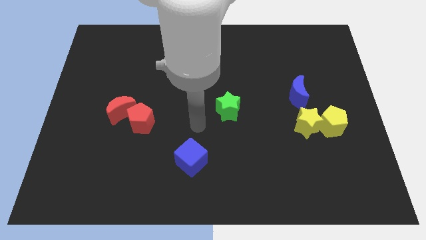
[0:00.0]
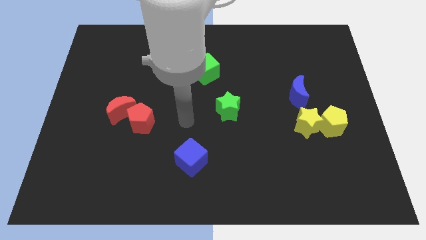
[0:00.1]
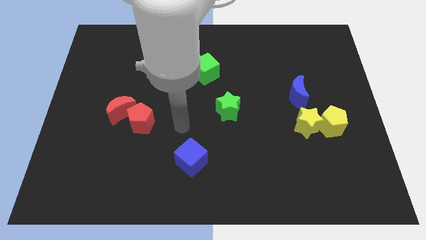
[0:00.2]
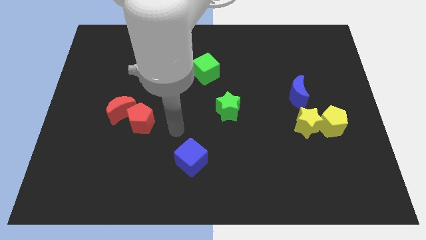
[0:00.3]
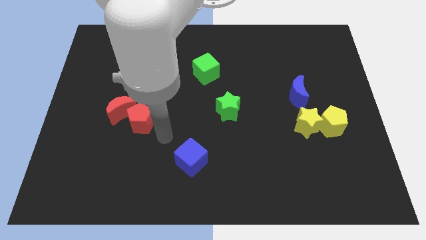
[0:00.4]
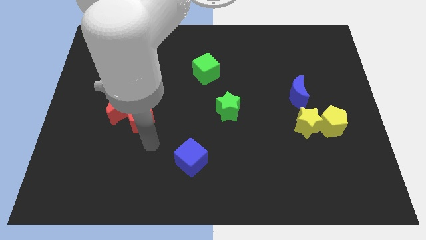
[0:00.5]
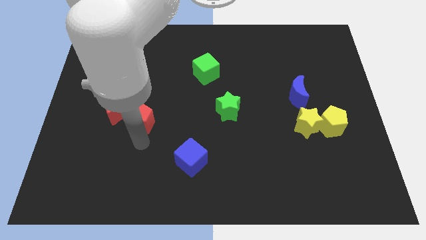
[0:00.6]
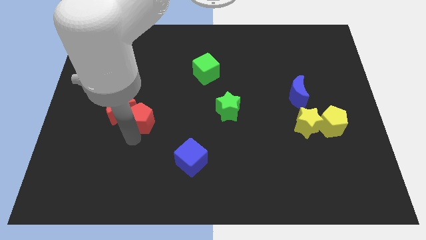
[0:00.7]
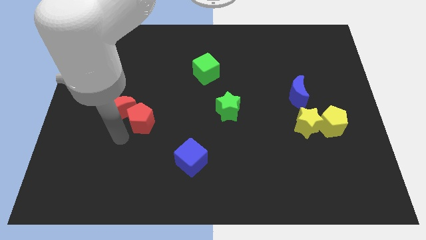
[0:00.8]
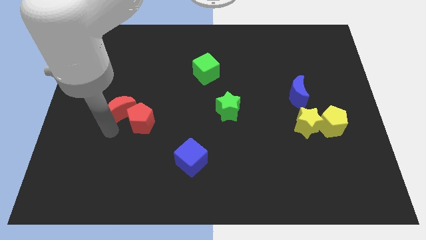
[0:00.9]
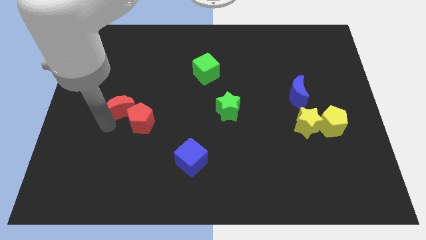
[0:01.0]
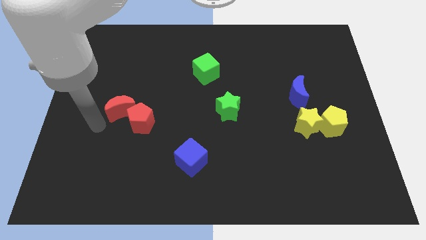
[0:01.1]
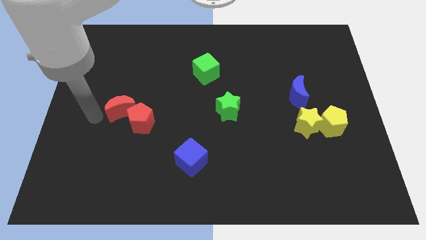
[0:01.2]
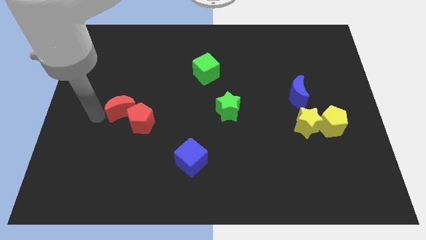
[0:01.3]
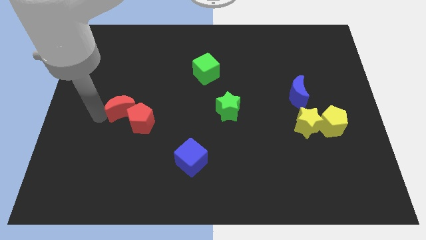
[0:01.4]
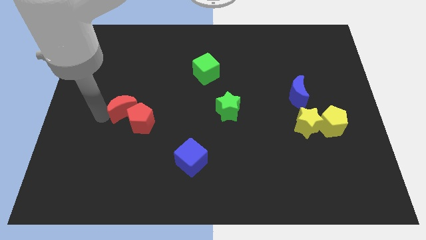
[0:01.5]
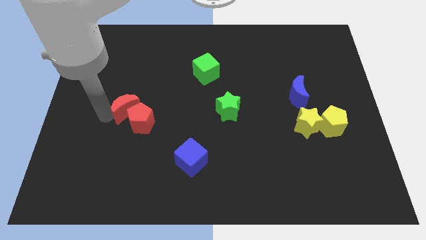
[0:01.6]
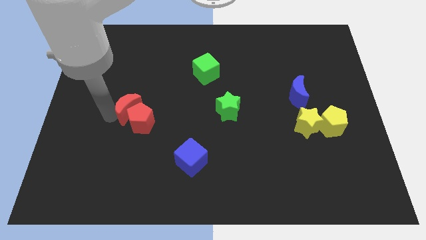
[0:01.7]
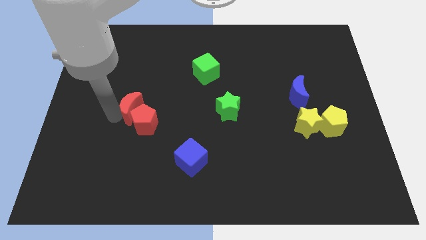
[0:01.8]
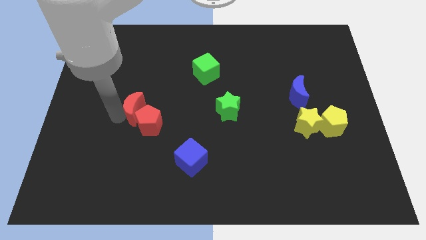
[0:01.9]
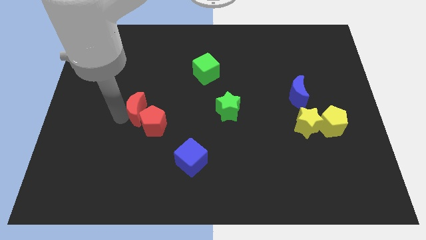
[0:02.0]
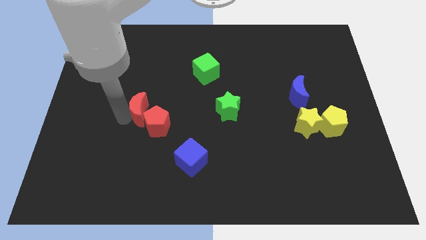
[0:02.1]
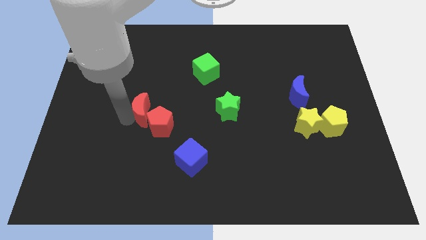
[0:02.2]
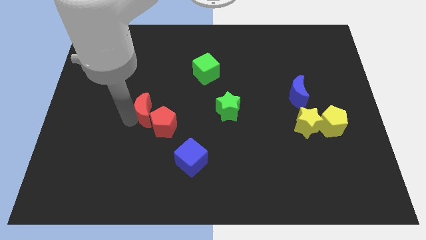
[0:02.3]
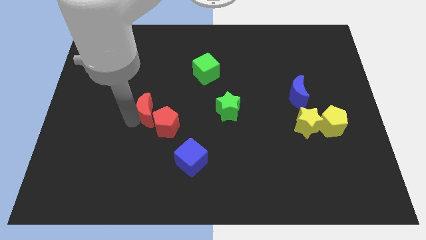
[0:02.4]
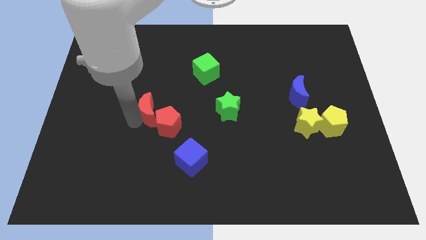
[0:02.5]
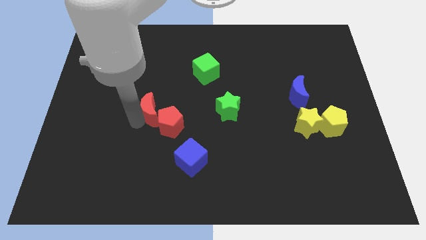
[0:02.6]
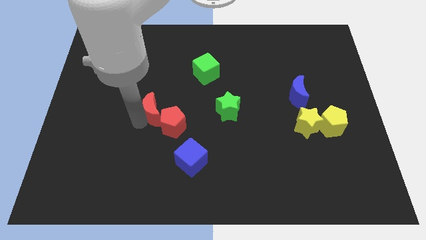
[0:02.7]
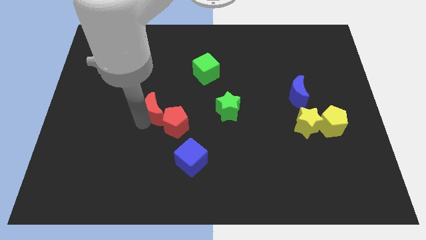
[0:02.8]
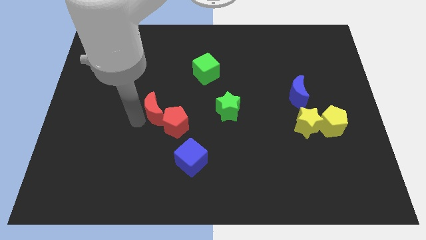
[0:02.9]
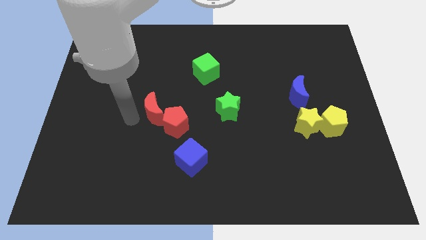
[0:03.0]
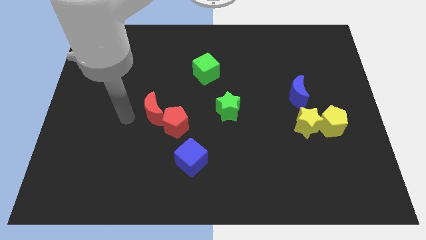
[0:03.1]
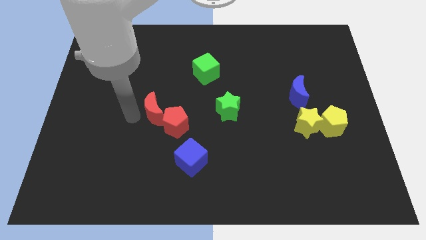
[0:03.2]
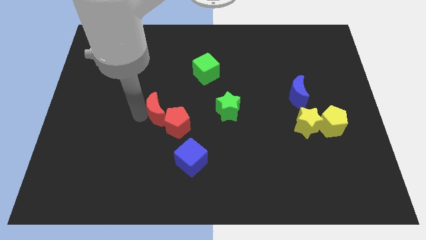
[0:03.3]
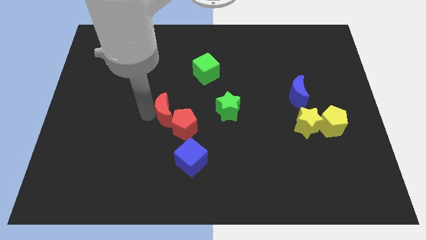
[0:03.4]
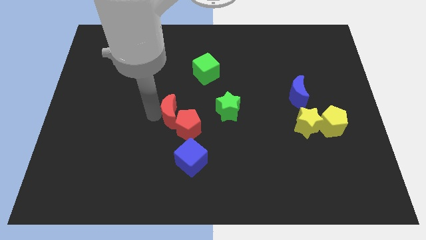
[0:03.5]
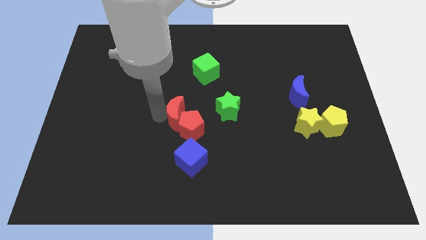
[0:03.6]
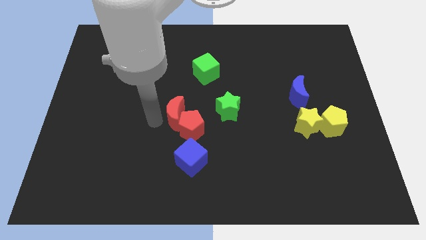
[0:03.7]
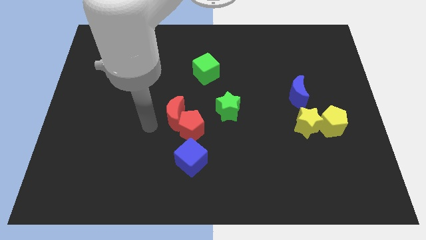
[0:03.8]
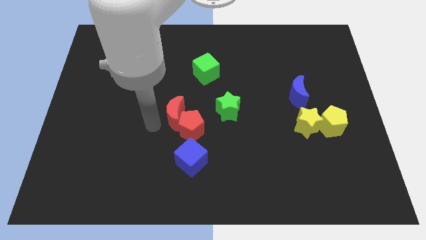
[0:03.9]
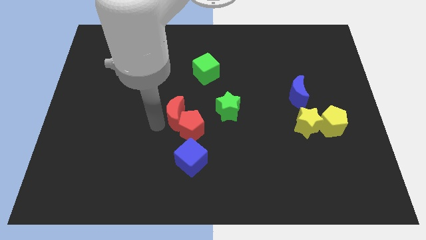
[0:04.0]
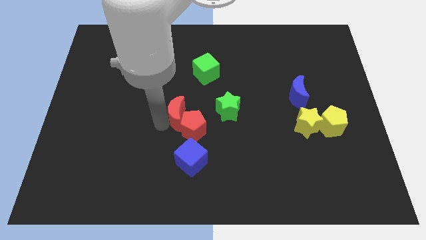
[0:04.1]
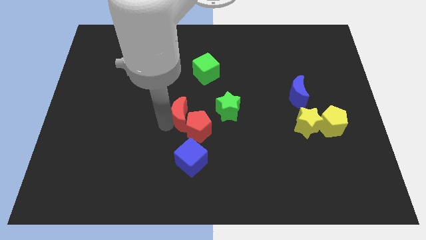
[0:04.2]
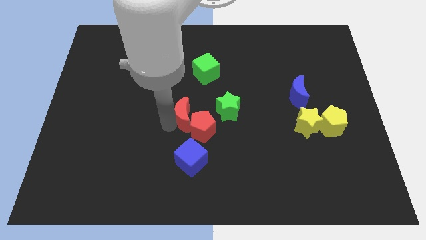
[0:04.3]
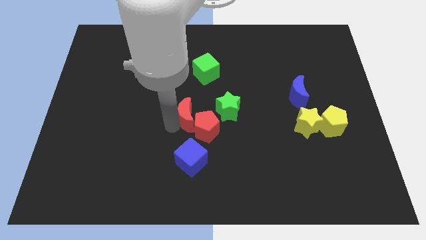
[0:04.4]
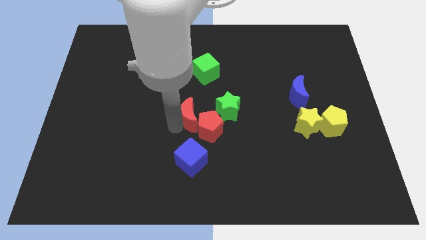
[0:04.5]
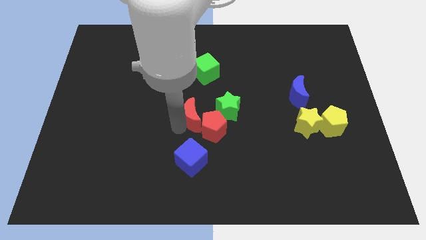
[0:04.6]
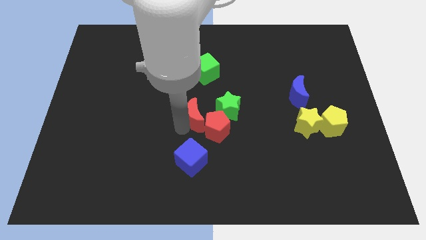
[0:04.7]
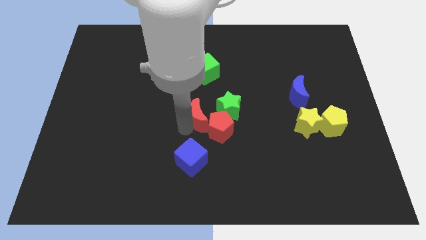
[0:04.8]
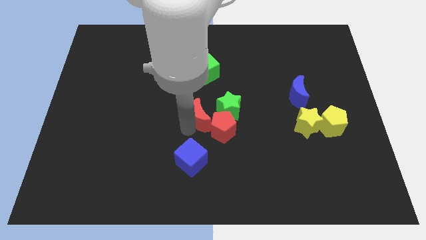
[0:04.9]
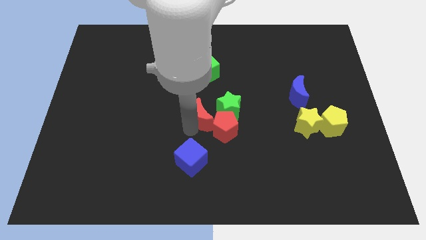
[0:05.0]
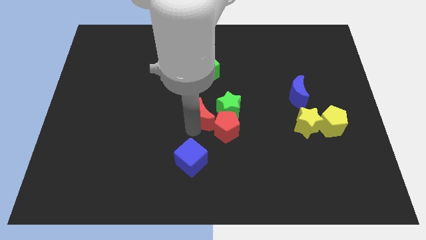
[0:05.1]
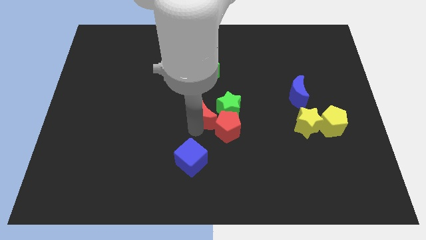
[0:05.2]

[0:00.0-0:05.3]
slide the red moon to the green star

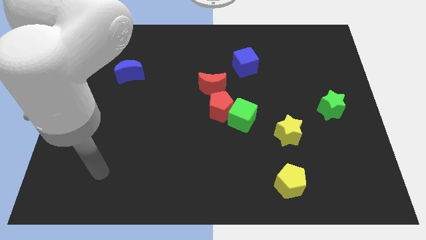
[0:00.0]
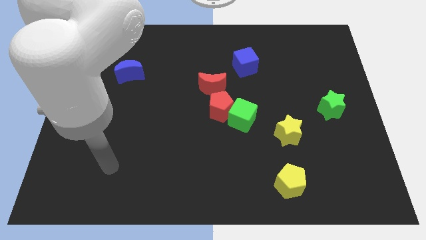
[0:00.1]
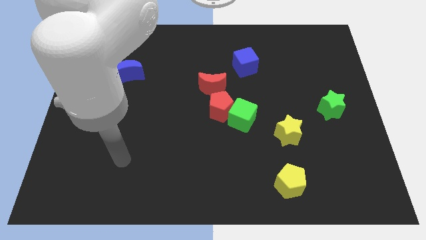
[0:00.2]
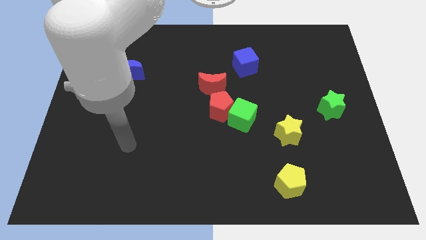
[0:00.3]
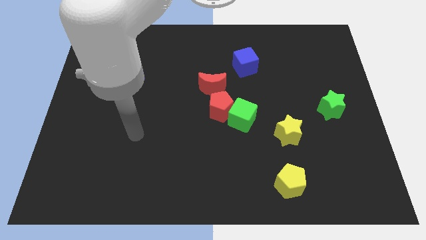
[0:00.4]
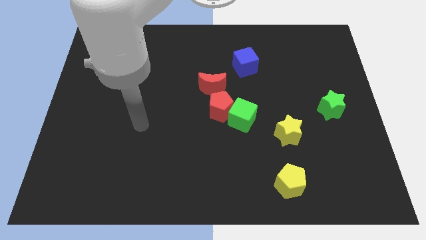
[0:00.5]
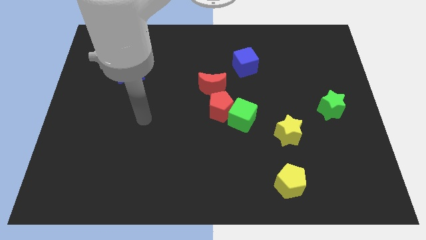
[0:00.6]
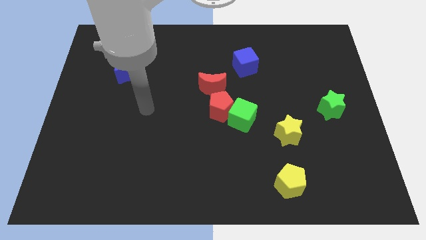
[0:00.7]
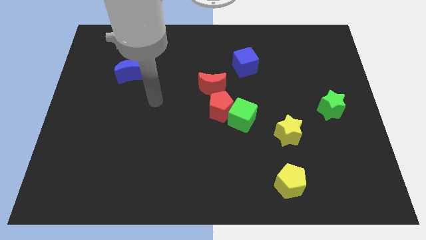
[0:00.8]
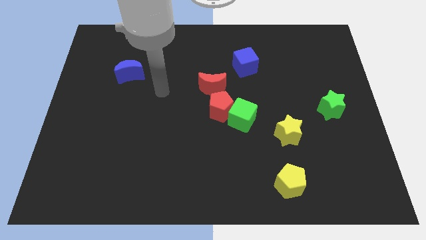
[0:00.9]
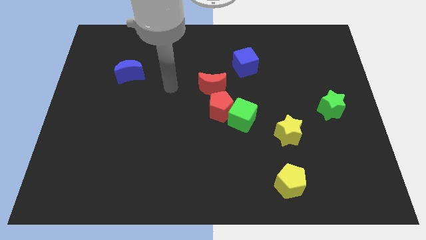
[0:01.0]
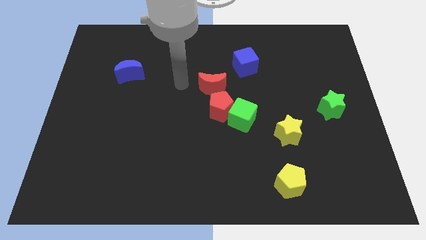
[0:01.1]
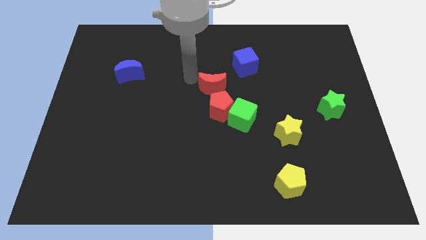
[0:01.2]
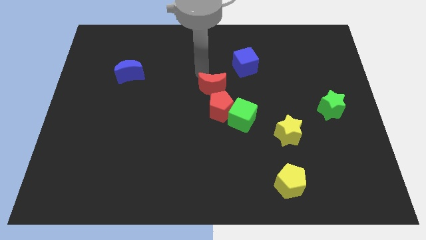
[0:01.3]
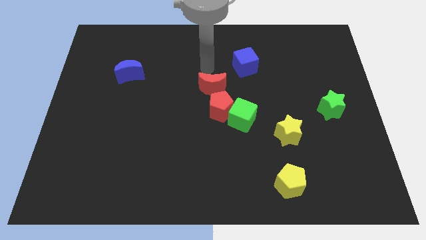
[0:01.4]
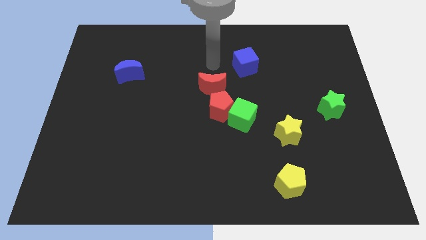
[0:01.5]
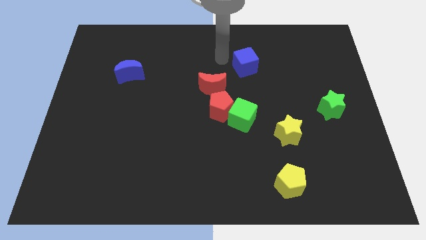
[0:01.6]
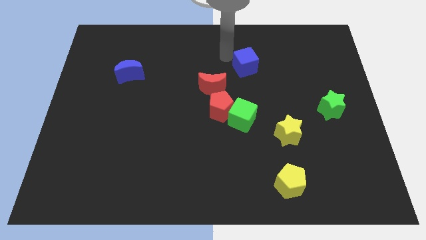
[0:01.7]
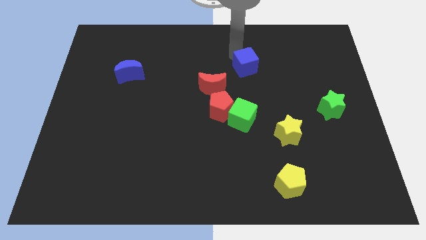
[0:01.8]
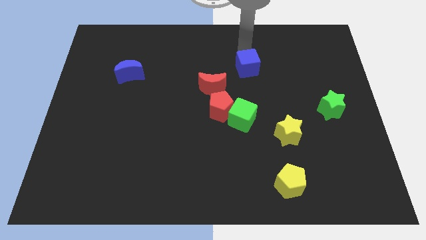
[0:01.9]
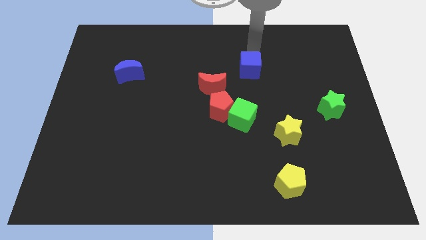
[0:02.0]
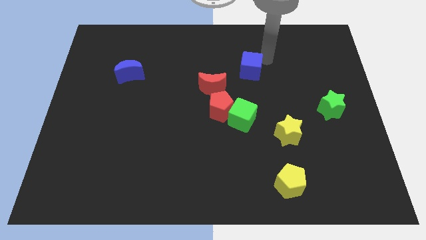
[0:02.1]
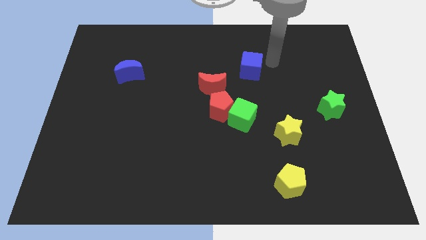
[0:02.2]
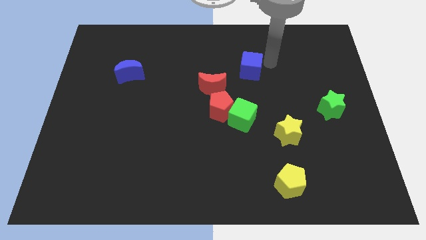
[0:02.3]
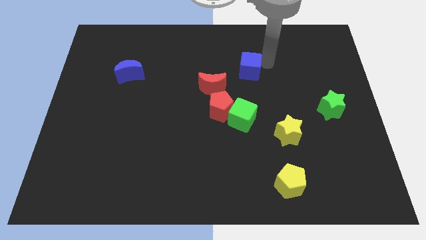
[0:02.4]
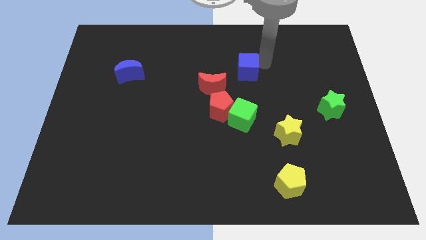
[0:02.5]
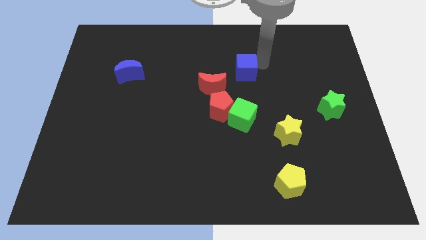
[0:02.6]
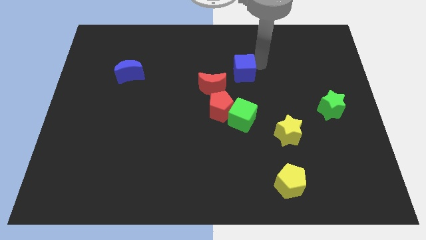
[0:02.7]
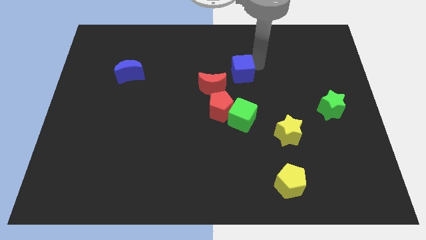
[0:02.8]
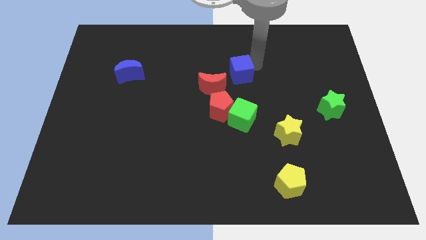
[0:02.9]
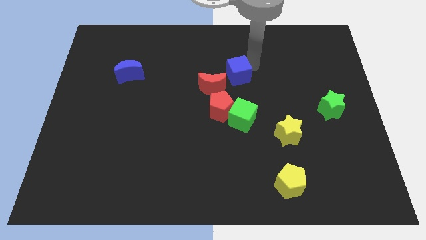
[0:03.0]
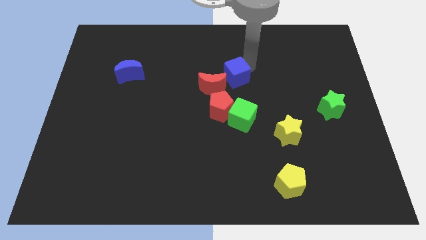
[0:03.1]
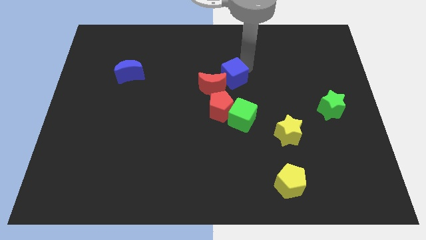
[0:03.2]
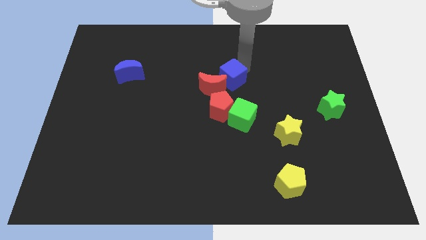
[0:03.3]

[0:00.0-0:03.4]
put the blue cube close to the red moon
